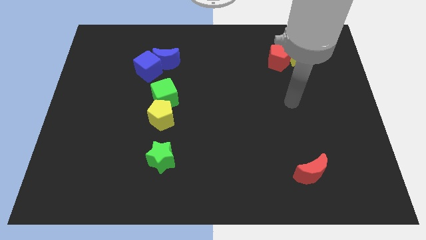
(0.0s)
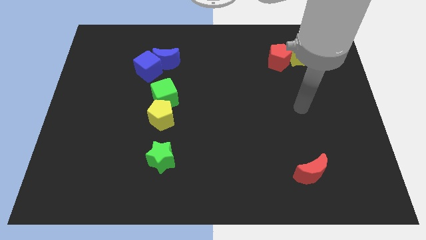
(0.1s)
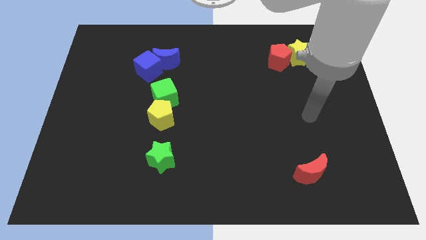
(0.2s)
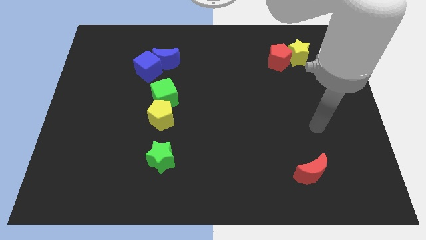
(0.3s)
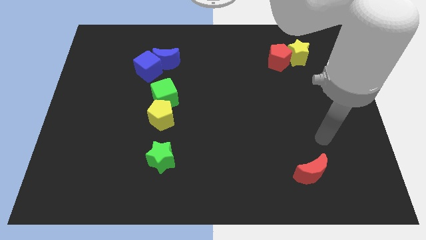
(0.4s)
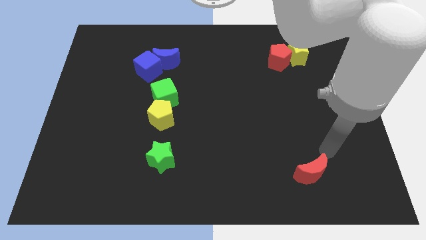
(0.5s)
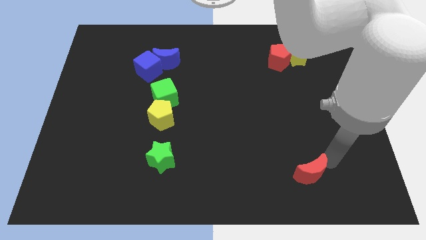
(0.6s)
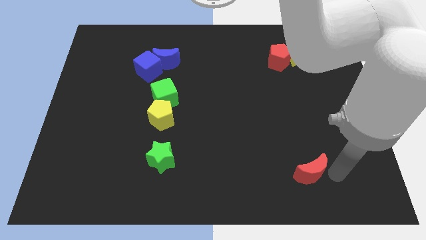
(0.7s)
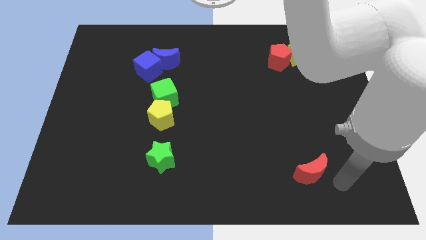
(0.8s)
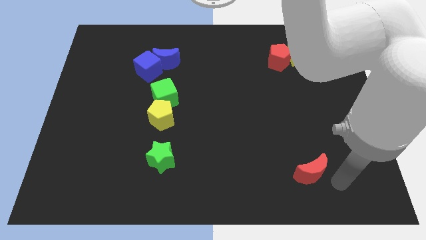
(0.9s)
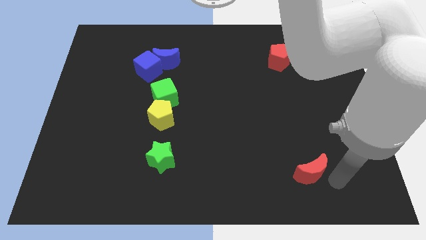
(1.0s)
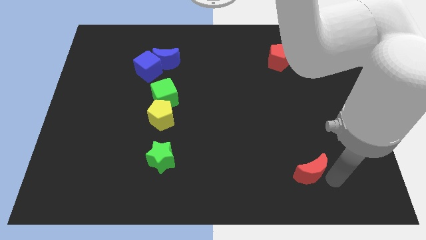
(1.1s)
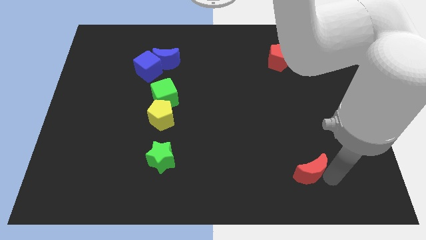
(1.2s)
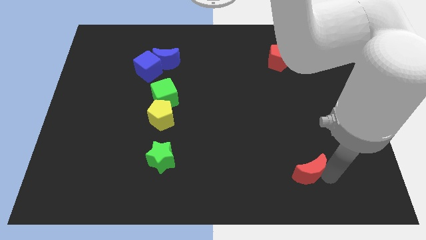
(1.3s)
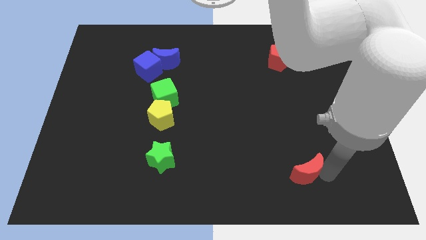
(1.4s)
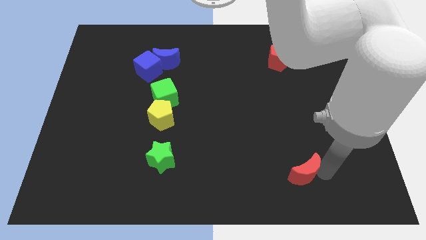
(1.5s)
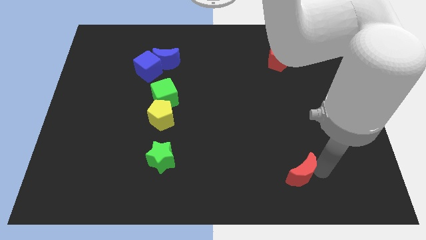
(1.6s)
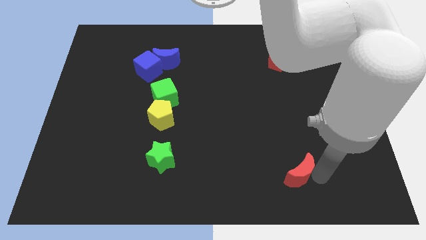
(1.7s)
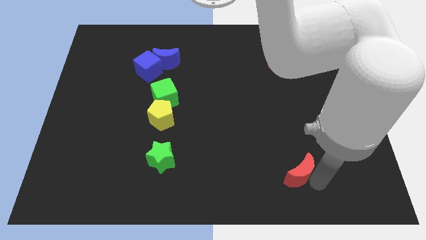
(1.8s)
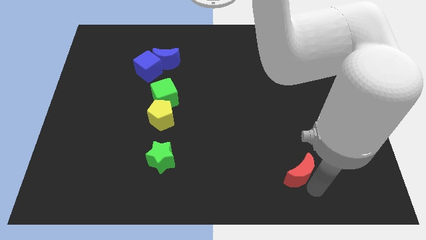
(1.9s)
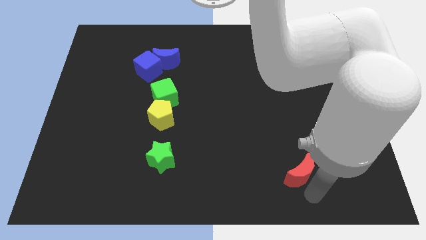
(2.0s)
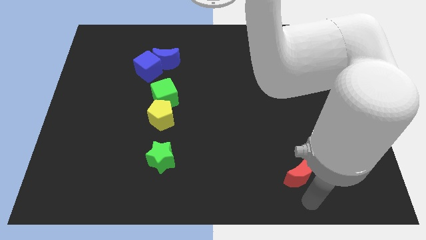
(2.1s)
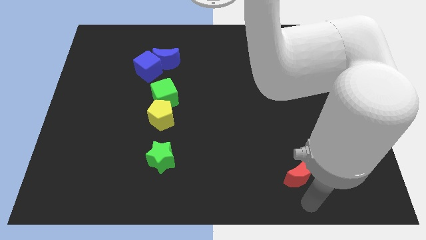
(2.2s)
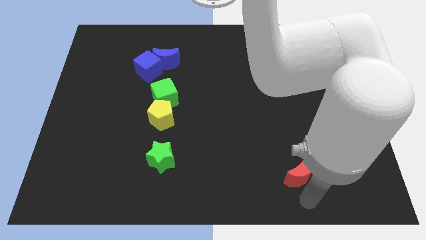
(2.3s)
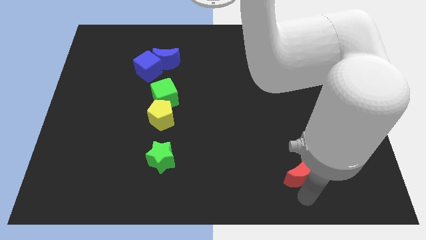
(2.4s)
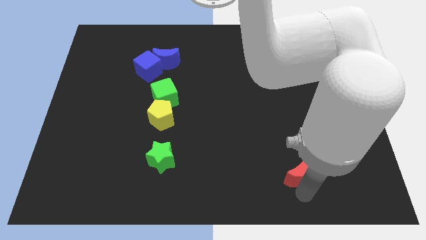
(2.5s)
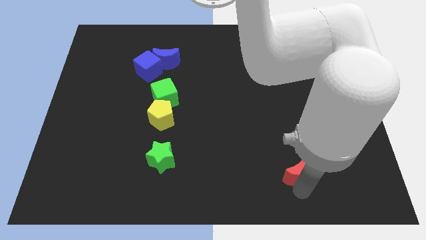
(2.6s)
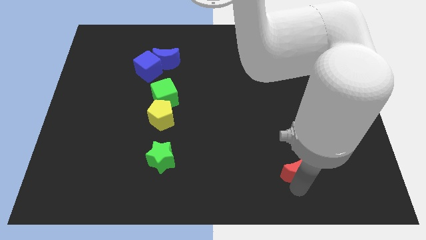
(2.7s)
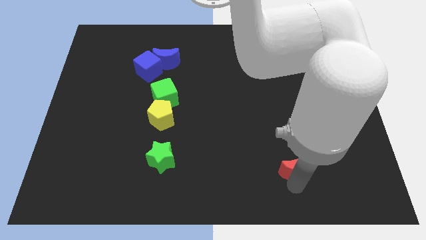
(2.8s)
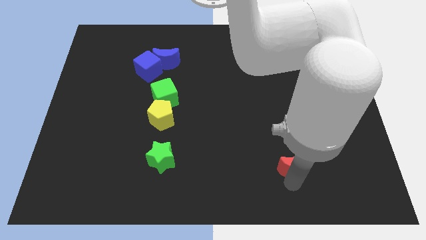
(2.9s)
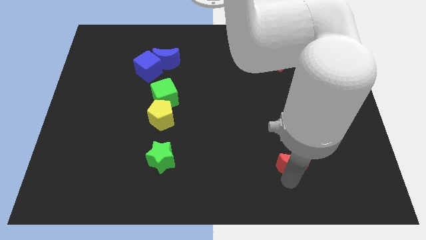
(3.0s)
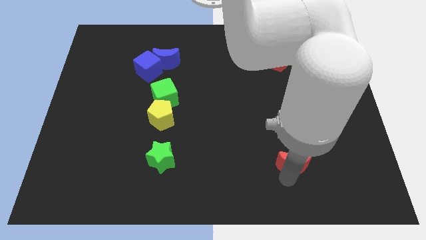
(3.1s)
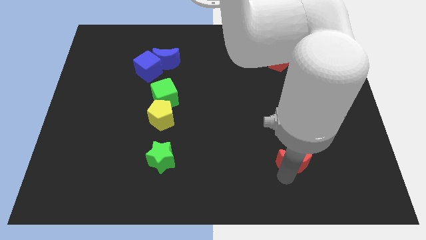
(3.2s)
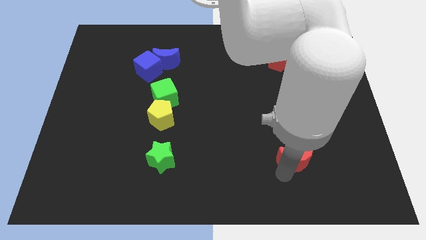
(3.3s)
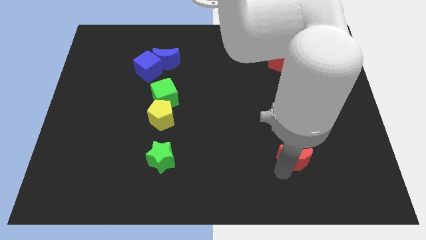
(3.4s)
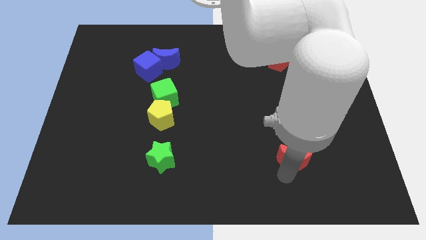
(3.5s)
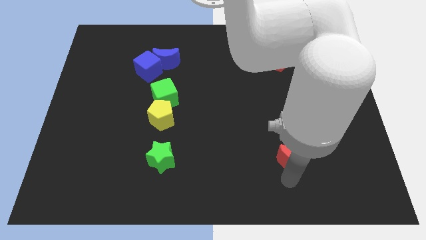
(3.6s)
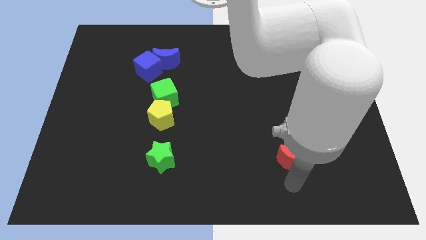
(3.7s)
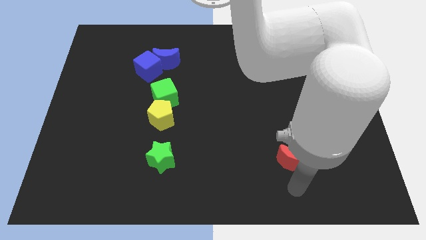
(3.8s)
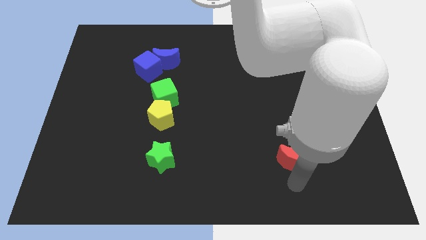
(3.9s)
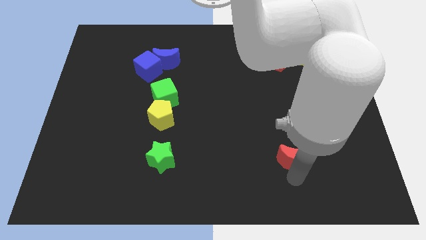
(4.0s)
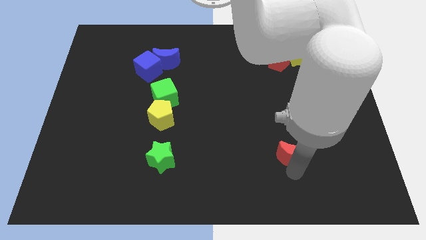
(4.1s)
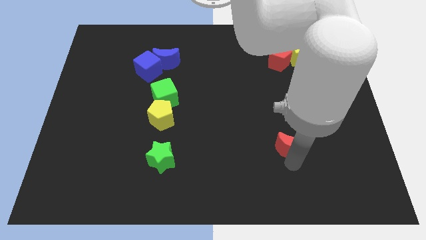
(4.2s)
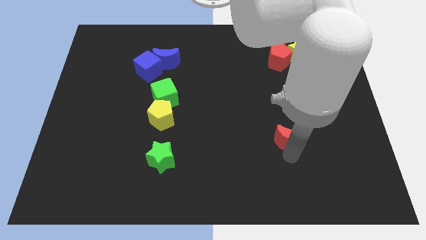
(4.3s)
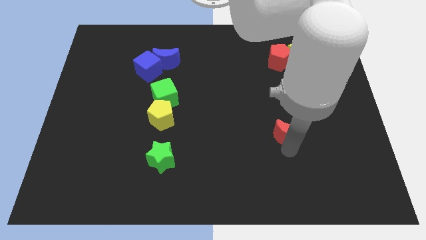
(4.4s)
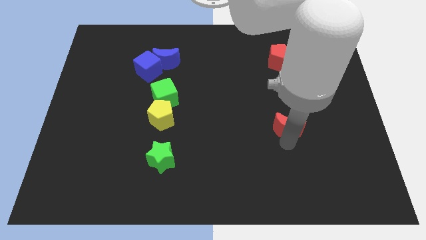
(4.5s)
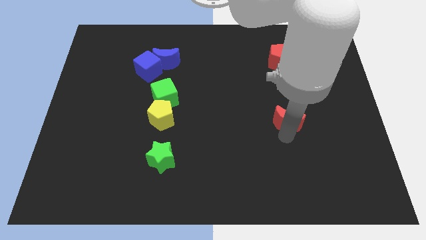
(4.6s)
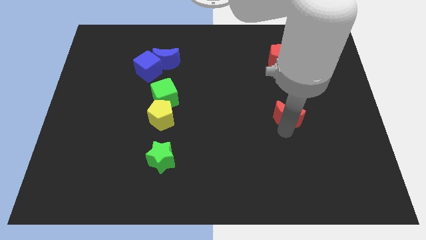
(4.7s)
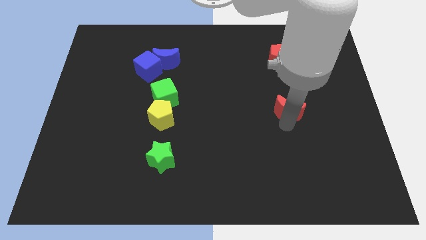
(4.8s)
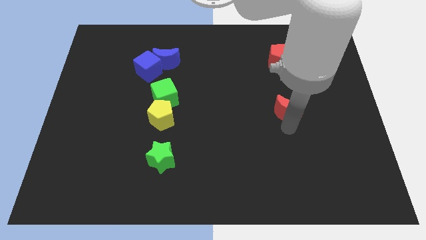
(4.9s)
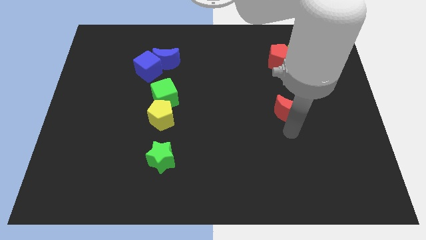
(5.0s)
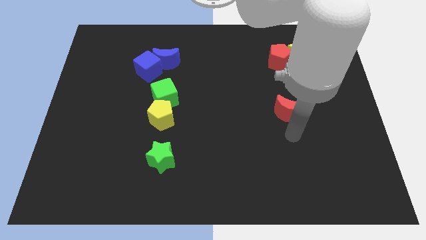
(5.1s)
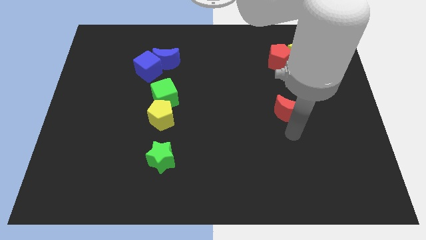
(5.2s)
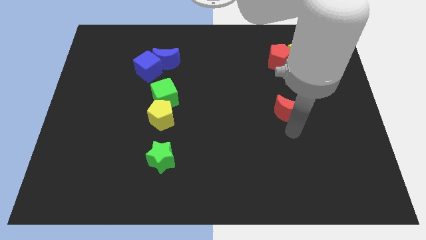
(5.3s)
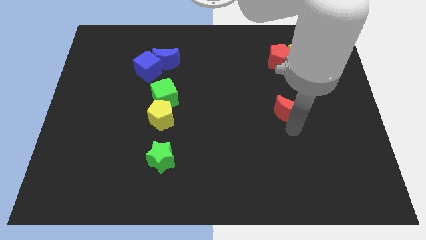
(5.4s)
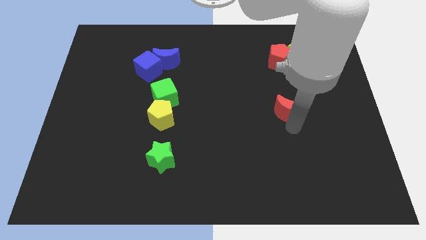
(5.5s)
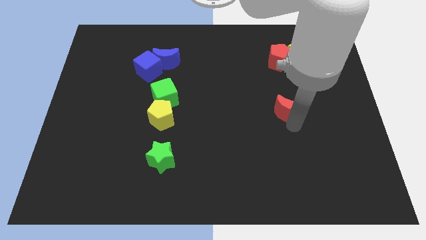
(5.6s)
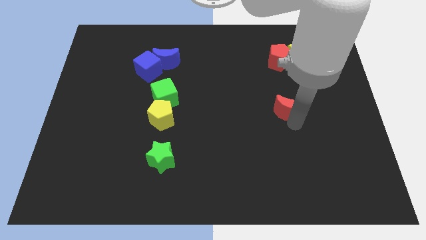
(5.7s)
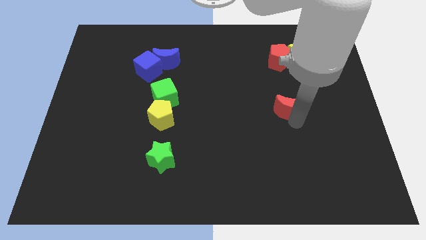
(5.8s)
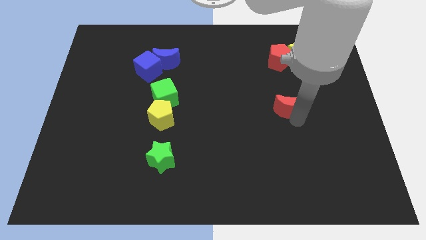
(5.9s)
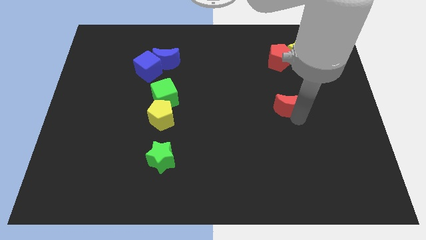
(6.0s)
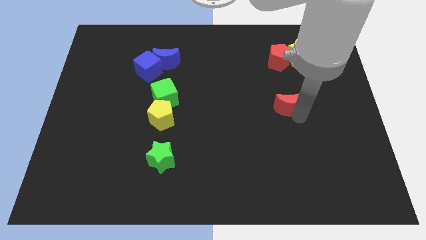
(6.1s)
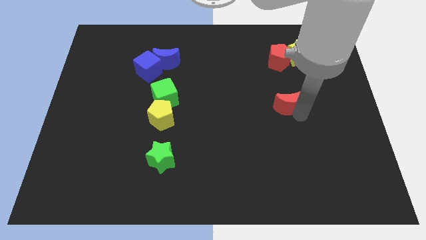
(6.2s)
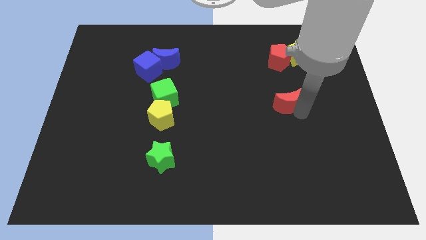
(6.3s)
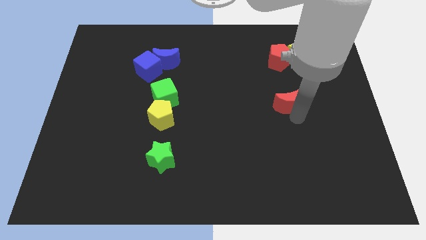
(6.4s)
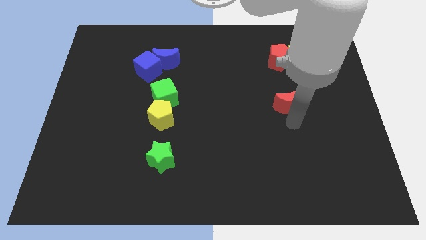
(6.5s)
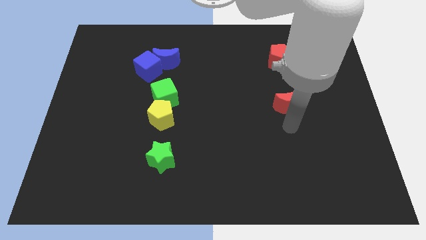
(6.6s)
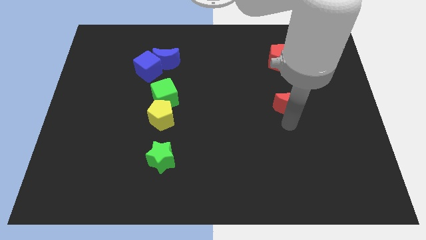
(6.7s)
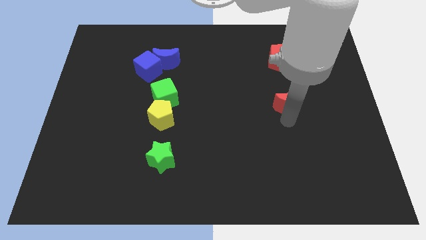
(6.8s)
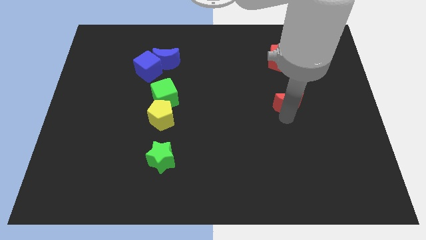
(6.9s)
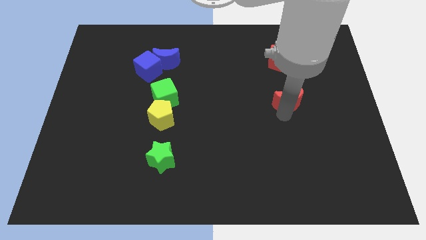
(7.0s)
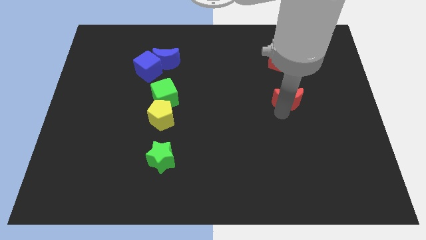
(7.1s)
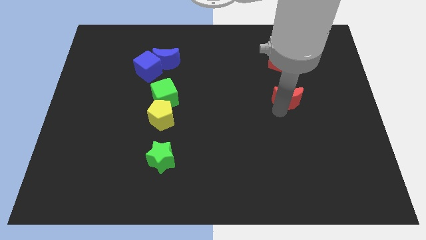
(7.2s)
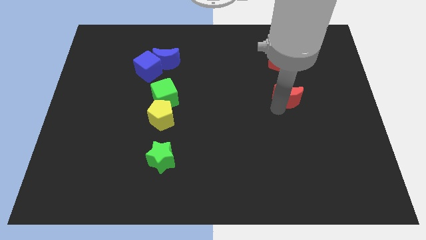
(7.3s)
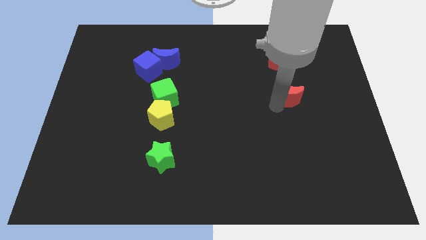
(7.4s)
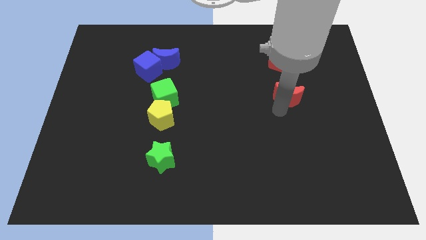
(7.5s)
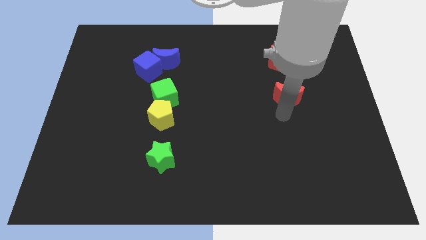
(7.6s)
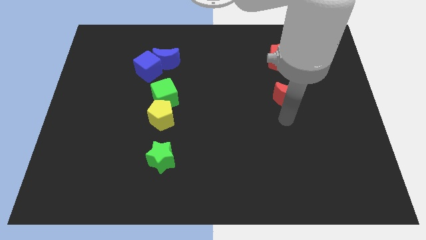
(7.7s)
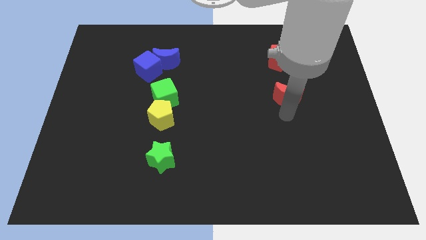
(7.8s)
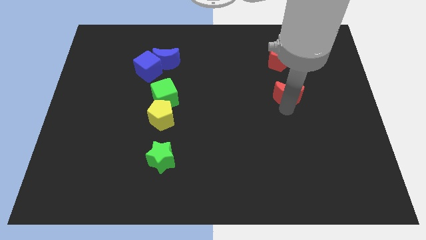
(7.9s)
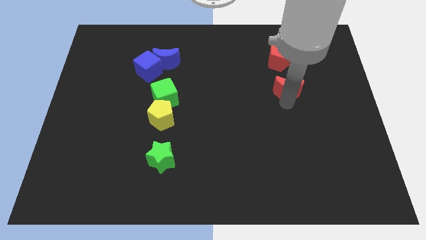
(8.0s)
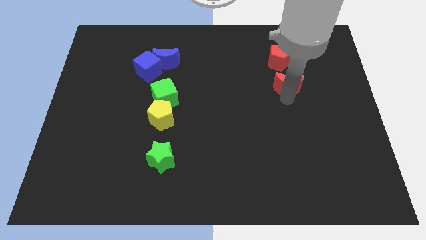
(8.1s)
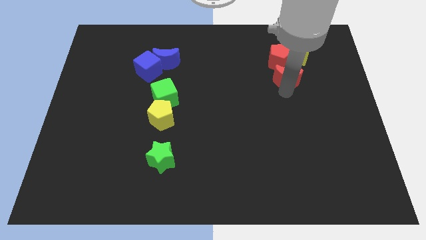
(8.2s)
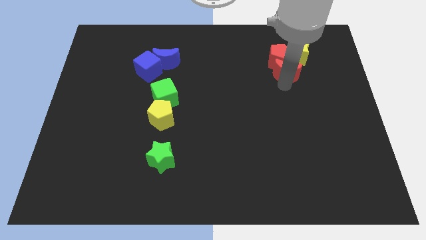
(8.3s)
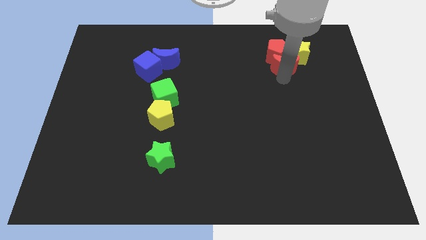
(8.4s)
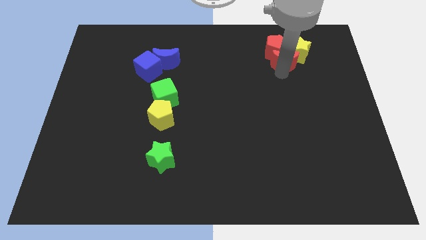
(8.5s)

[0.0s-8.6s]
put the red moon to the yellow star
